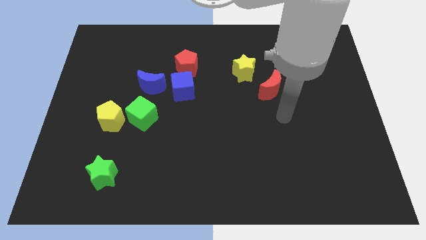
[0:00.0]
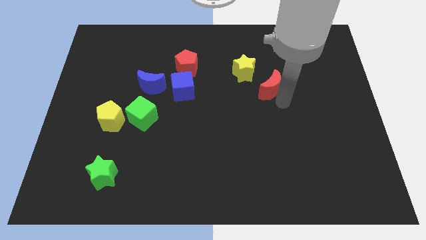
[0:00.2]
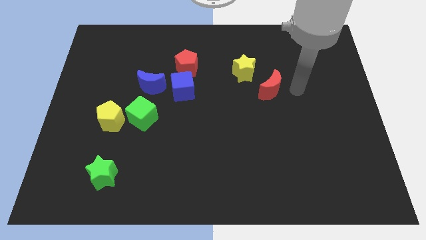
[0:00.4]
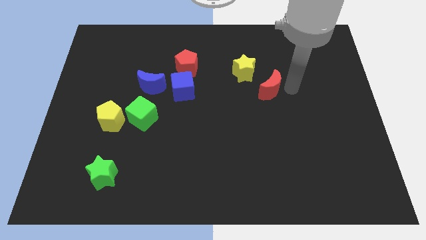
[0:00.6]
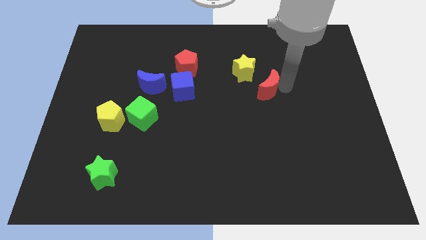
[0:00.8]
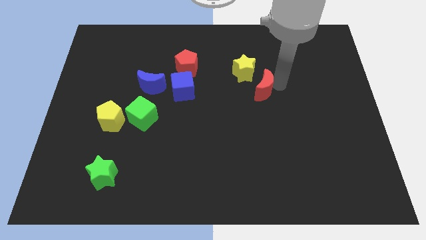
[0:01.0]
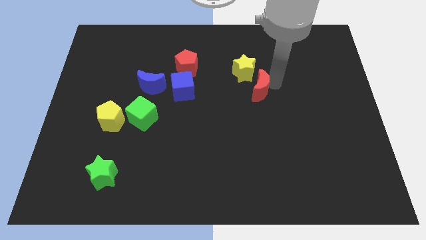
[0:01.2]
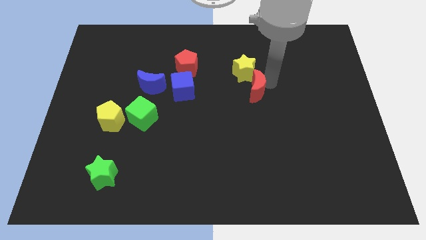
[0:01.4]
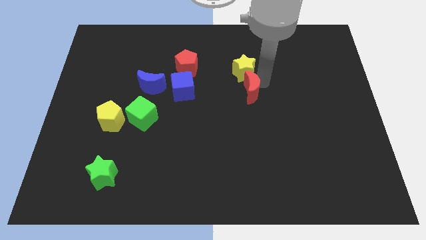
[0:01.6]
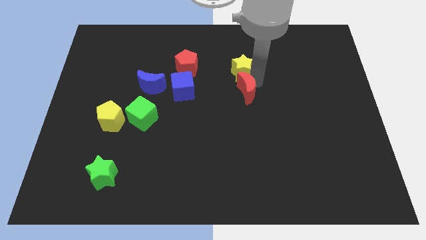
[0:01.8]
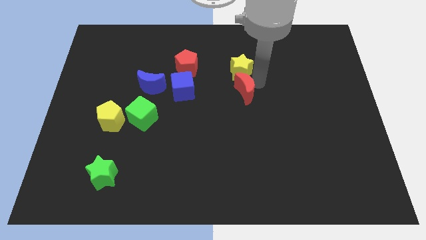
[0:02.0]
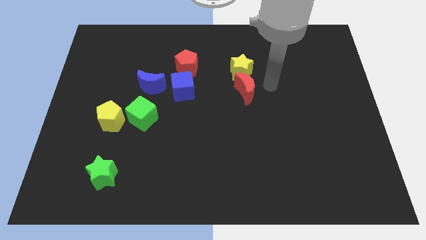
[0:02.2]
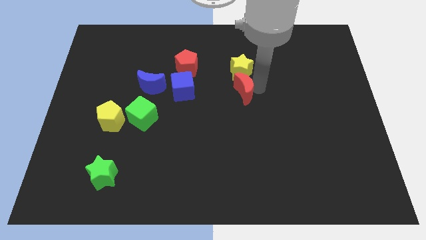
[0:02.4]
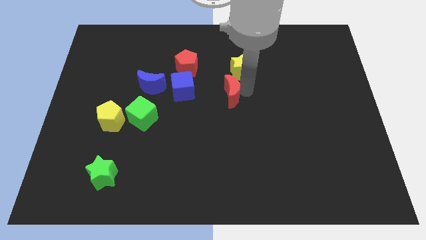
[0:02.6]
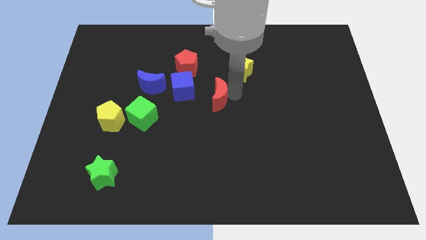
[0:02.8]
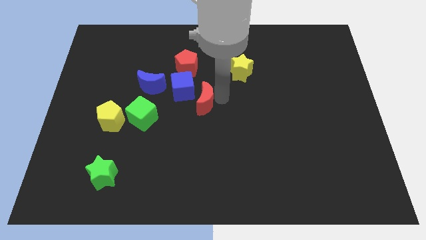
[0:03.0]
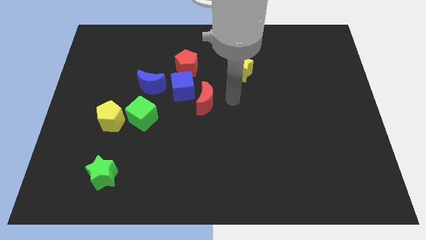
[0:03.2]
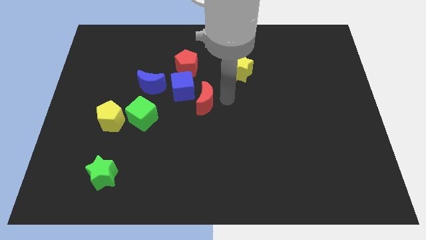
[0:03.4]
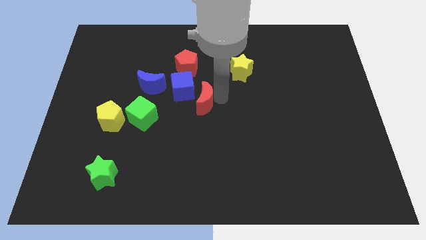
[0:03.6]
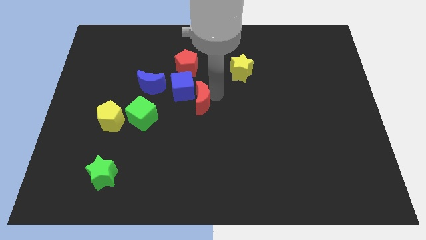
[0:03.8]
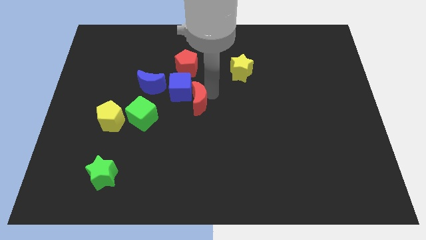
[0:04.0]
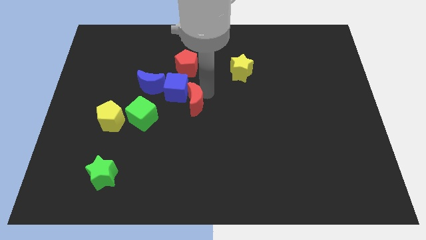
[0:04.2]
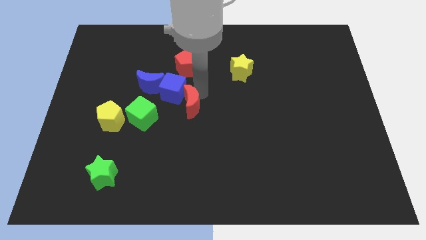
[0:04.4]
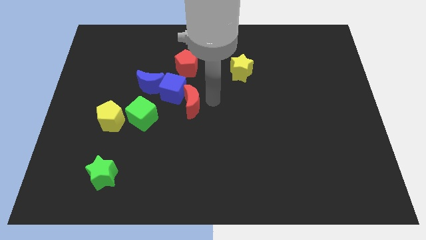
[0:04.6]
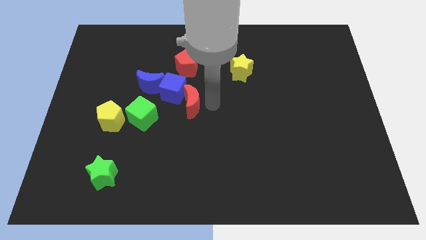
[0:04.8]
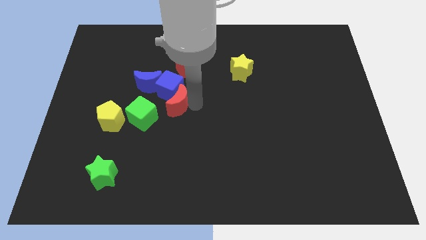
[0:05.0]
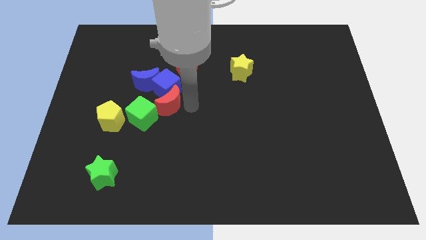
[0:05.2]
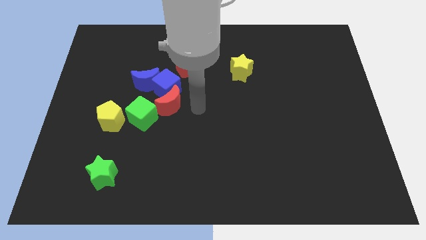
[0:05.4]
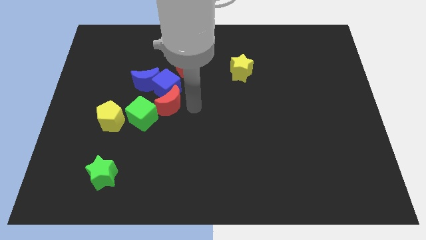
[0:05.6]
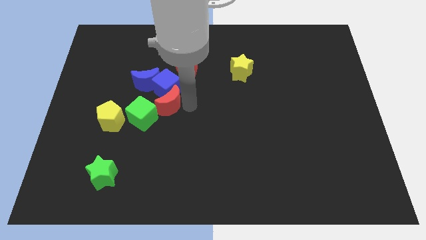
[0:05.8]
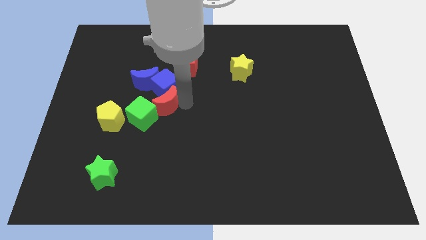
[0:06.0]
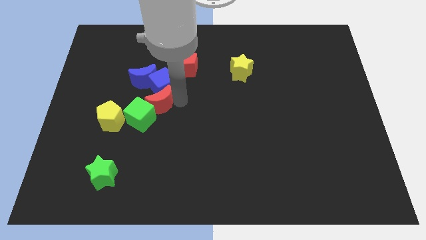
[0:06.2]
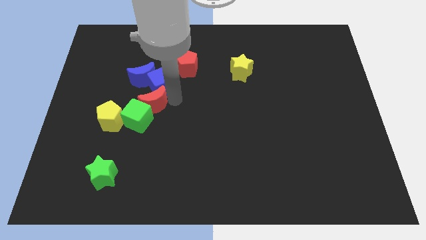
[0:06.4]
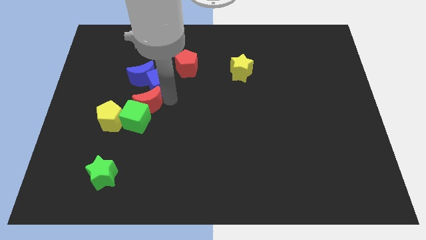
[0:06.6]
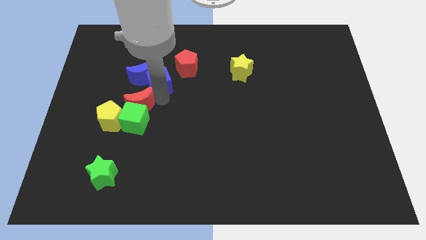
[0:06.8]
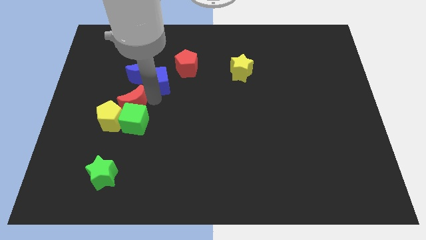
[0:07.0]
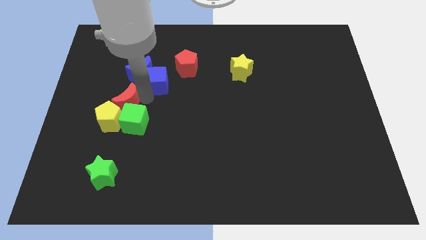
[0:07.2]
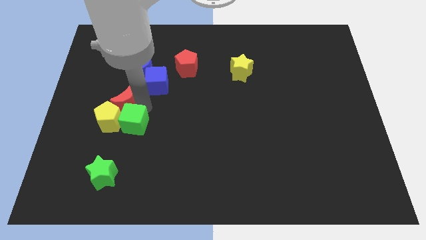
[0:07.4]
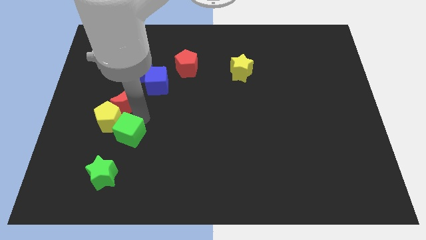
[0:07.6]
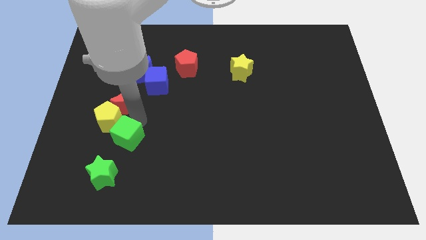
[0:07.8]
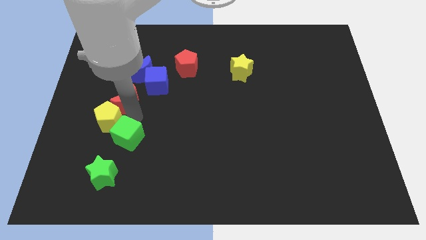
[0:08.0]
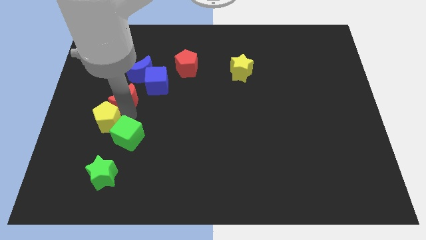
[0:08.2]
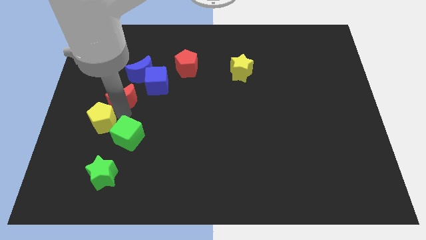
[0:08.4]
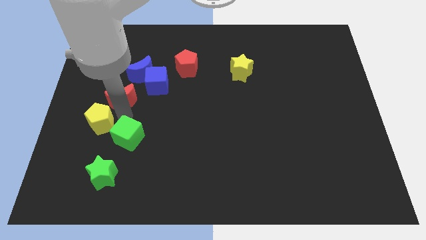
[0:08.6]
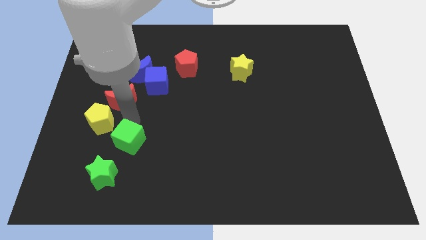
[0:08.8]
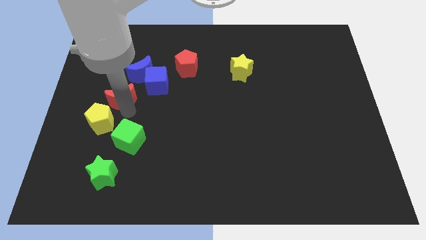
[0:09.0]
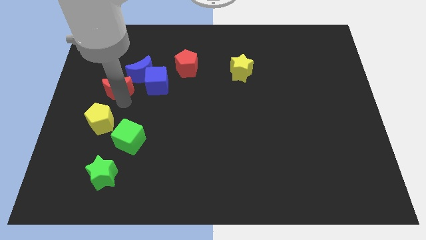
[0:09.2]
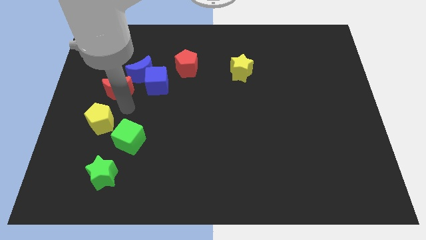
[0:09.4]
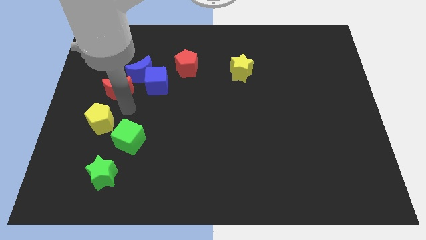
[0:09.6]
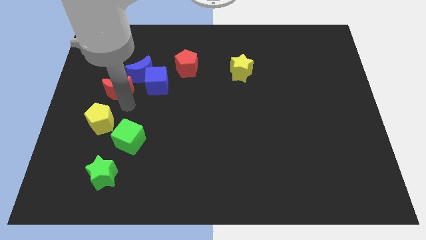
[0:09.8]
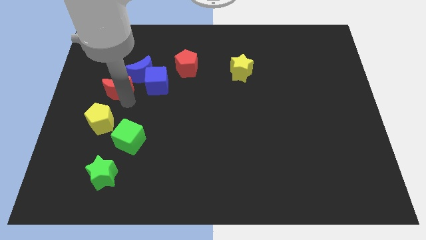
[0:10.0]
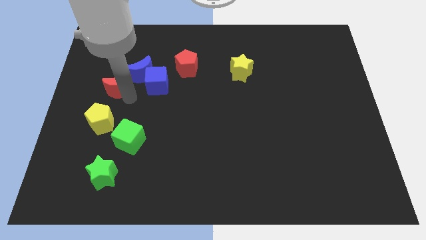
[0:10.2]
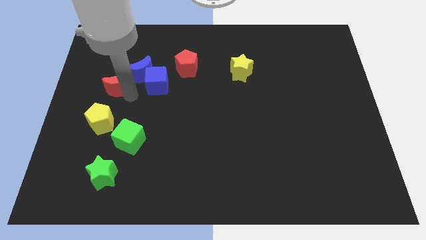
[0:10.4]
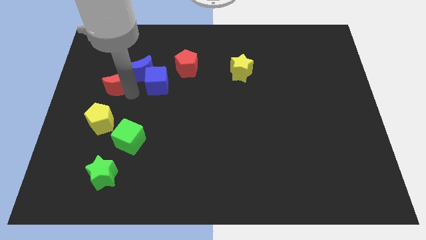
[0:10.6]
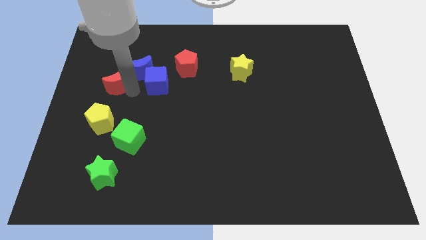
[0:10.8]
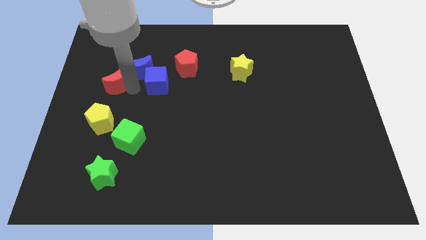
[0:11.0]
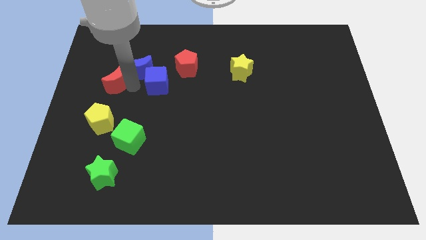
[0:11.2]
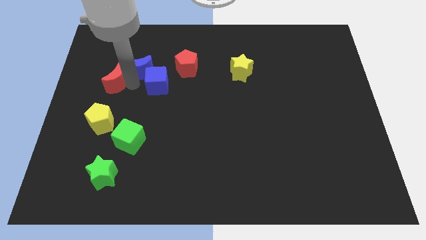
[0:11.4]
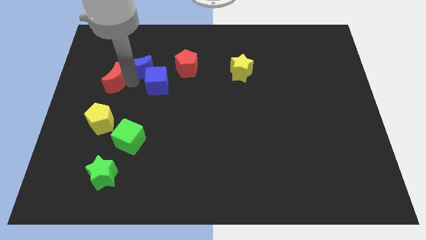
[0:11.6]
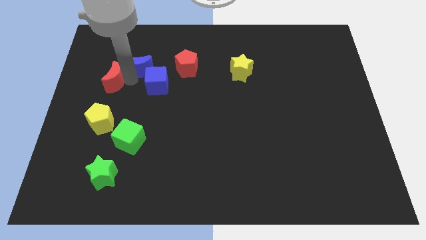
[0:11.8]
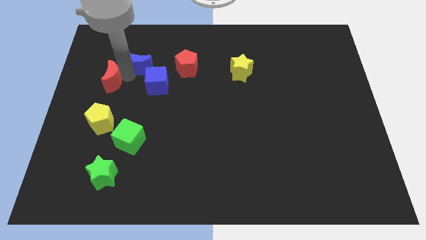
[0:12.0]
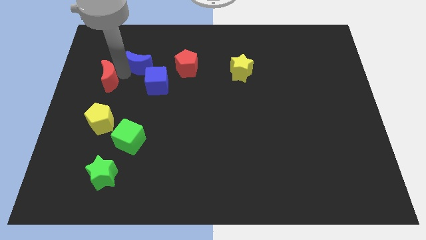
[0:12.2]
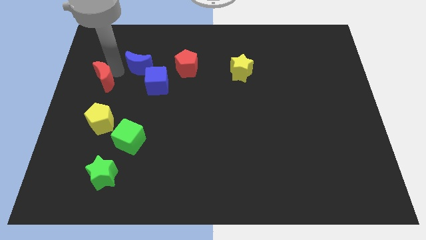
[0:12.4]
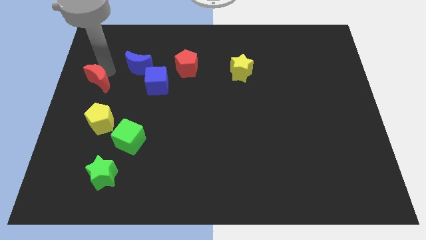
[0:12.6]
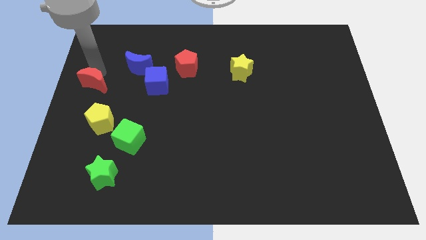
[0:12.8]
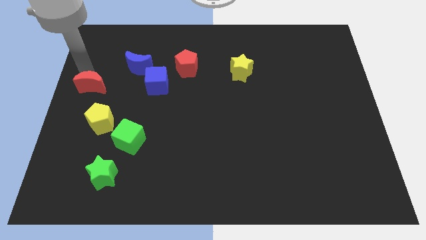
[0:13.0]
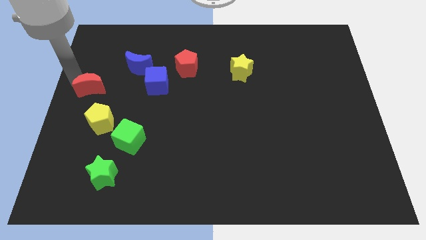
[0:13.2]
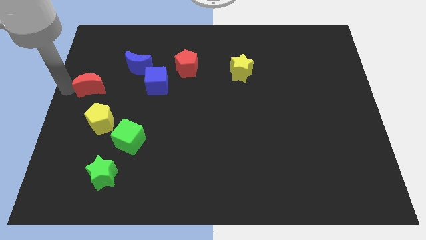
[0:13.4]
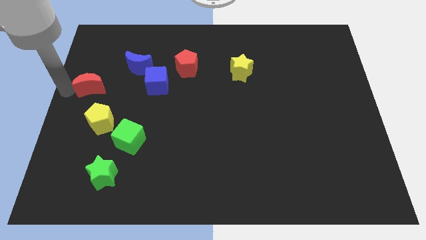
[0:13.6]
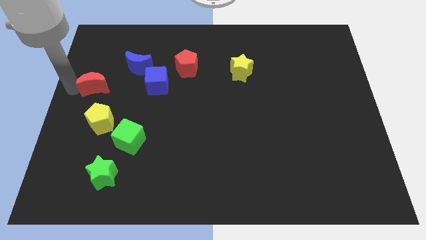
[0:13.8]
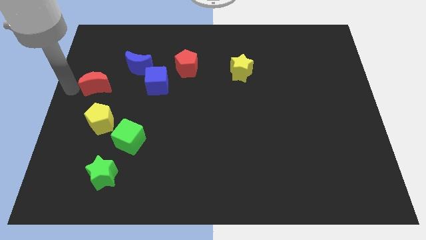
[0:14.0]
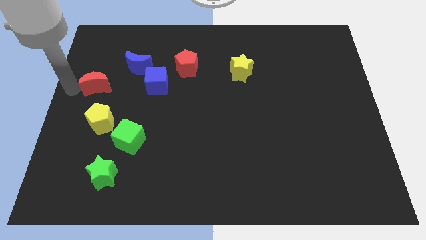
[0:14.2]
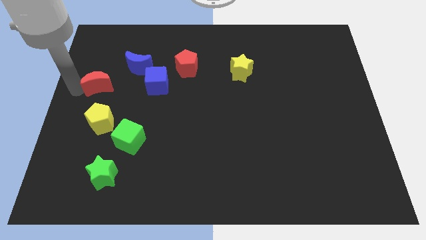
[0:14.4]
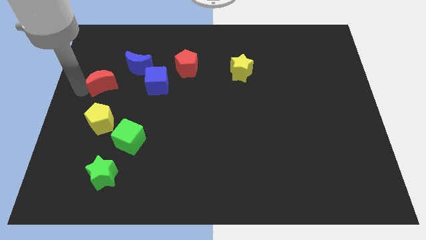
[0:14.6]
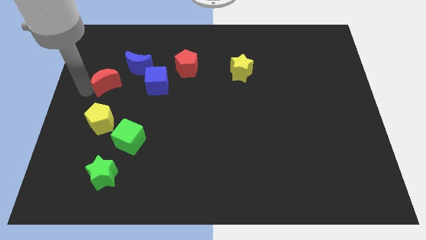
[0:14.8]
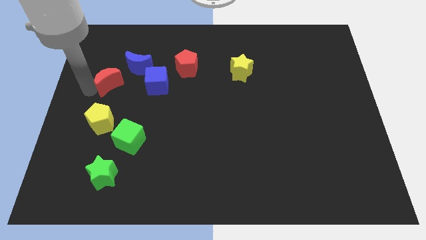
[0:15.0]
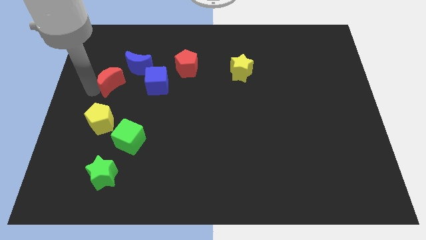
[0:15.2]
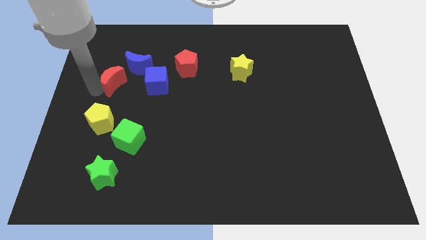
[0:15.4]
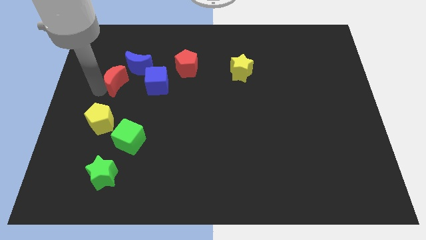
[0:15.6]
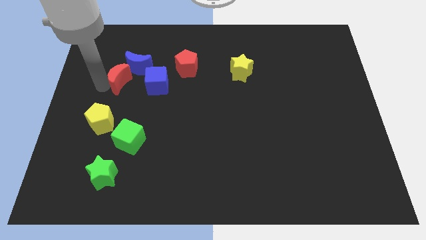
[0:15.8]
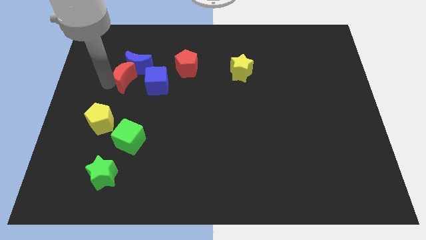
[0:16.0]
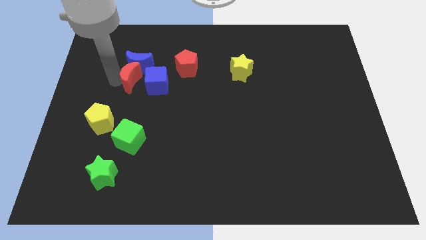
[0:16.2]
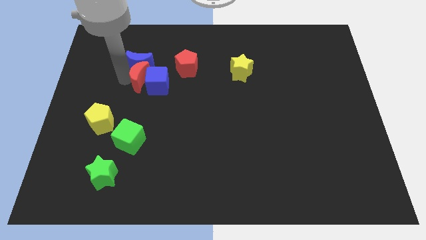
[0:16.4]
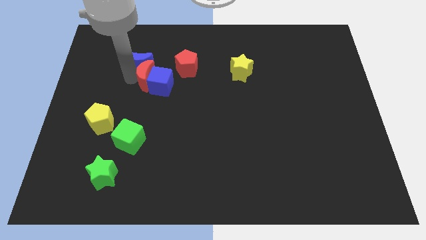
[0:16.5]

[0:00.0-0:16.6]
push the red moon just left of the blue cube
